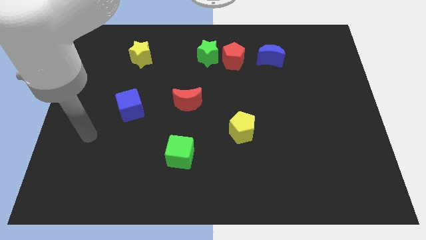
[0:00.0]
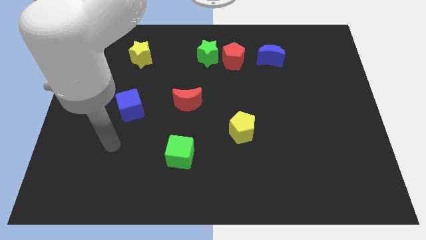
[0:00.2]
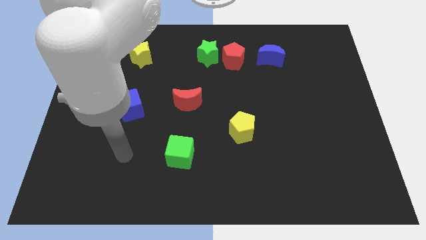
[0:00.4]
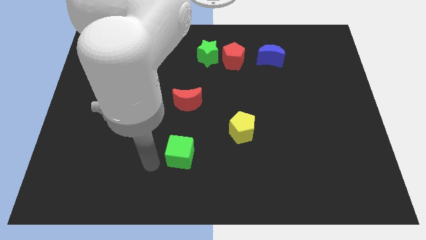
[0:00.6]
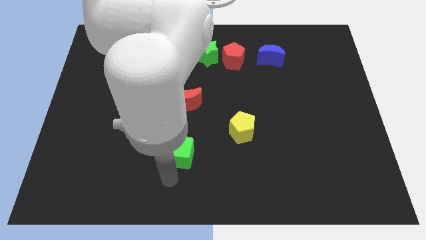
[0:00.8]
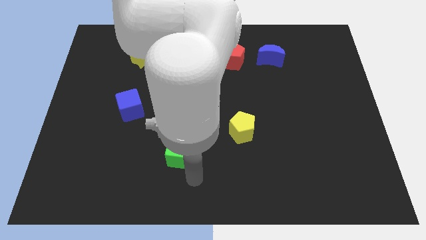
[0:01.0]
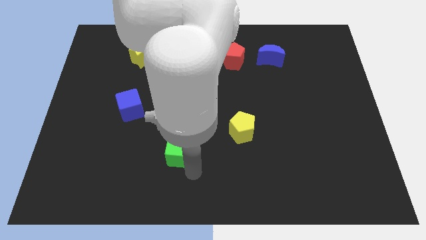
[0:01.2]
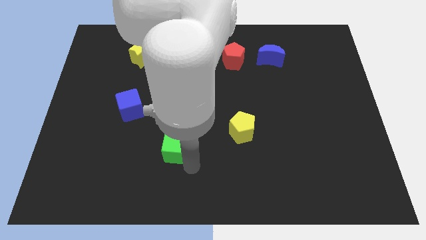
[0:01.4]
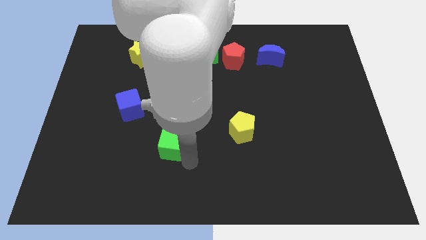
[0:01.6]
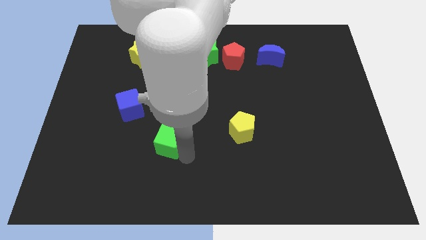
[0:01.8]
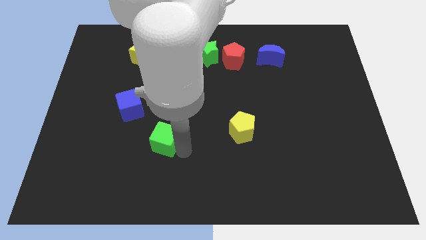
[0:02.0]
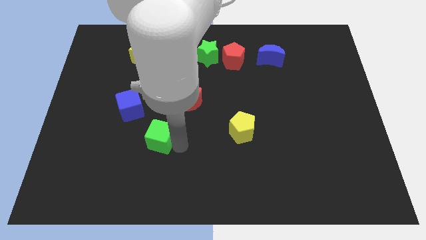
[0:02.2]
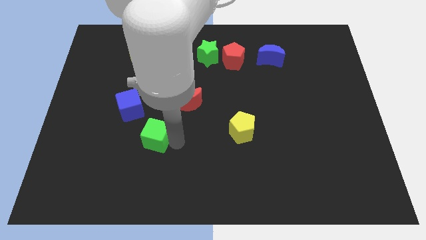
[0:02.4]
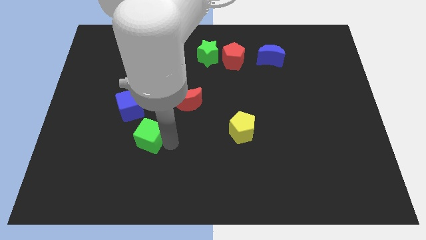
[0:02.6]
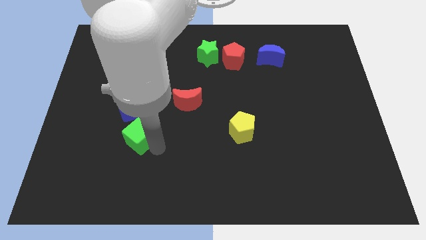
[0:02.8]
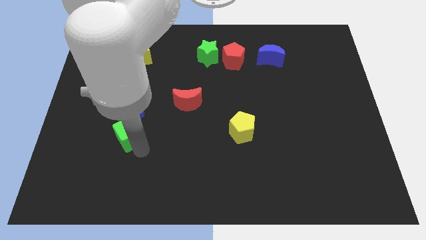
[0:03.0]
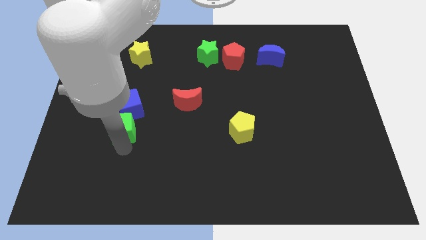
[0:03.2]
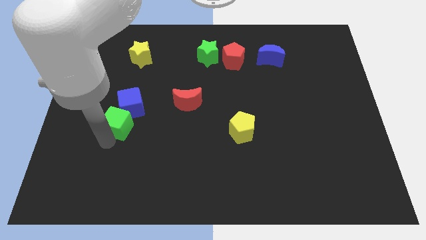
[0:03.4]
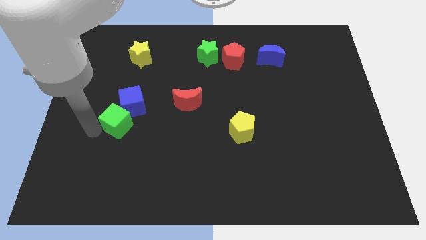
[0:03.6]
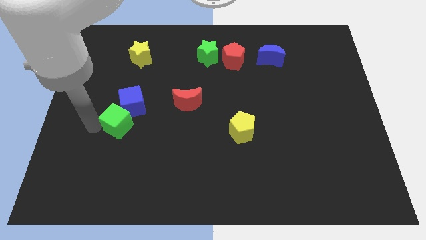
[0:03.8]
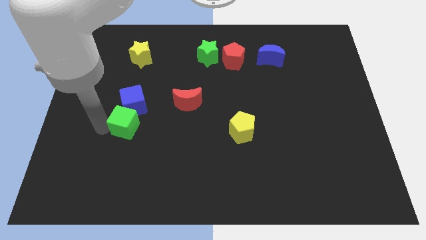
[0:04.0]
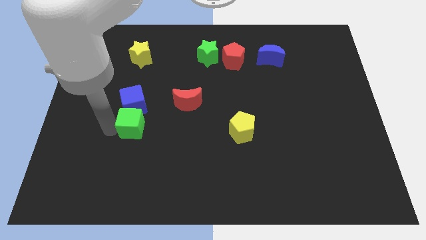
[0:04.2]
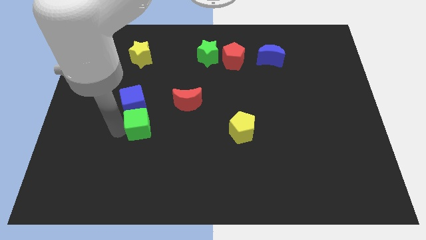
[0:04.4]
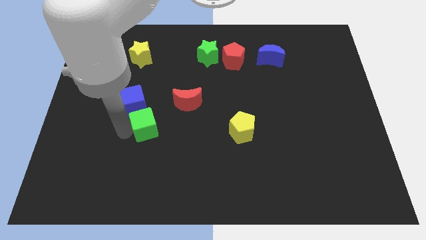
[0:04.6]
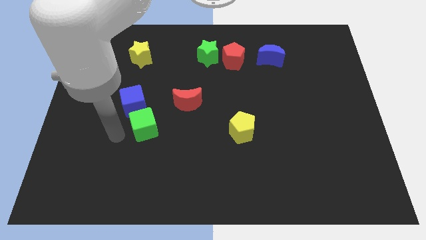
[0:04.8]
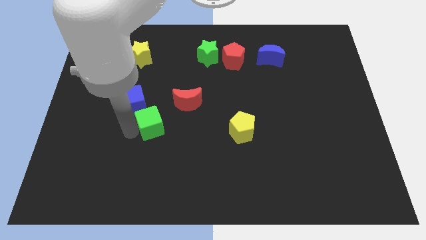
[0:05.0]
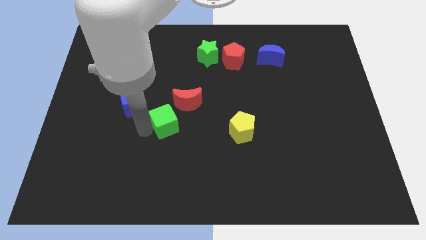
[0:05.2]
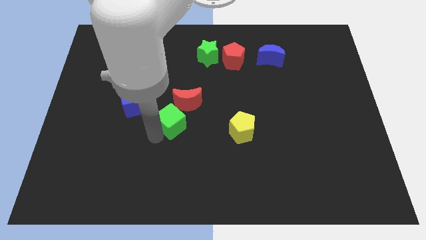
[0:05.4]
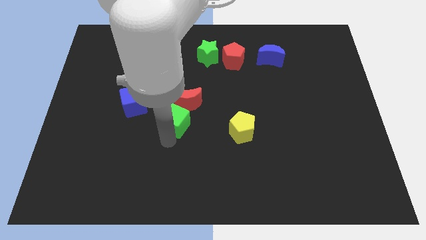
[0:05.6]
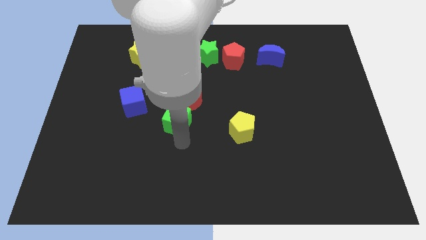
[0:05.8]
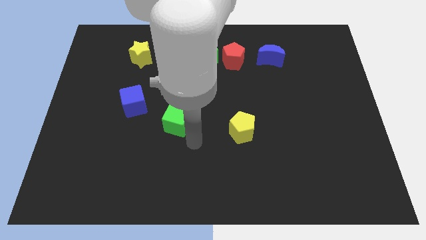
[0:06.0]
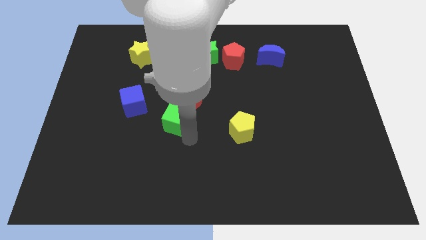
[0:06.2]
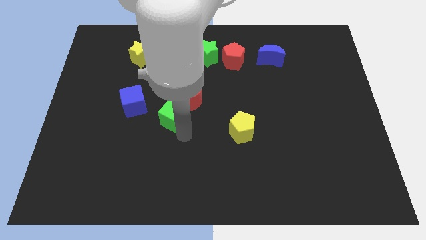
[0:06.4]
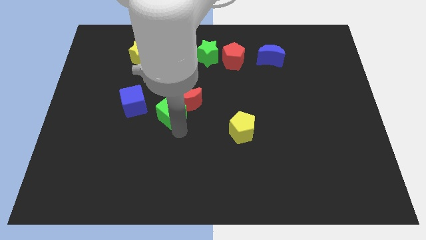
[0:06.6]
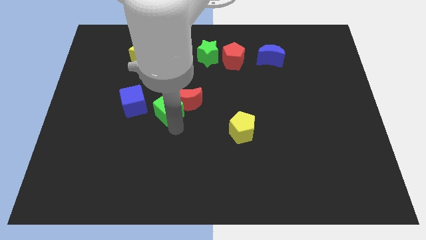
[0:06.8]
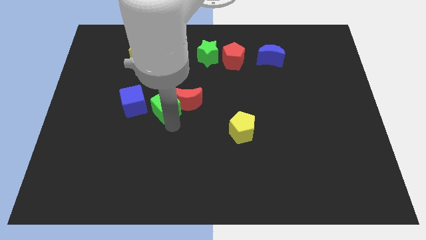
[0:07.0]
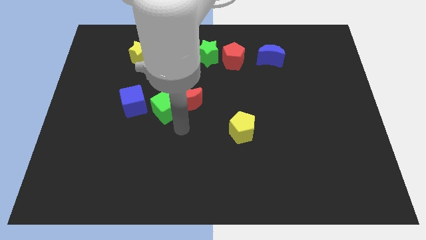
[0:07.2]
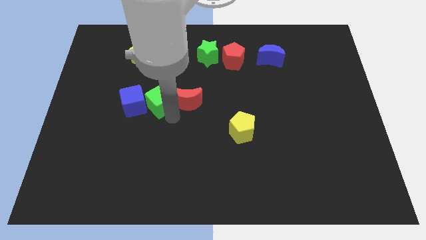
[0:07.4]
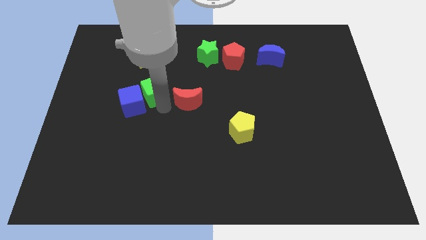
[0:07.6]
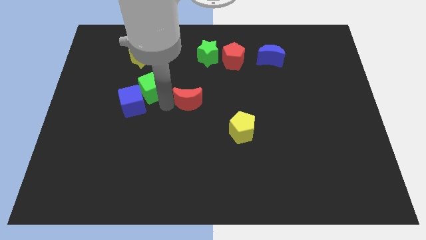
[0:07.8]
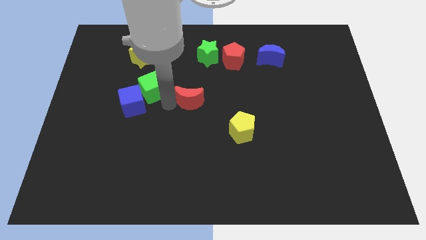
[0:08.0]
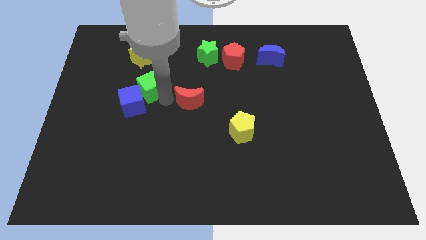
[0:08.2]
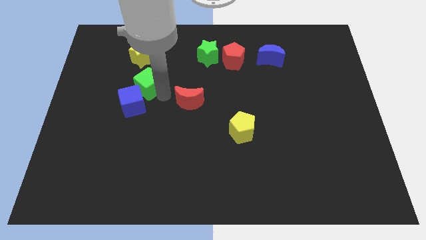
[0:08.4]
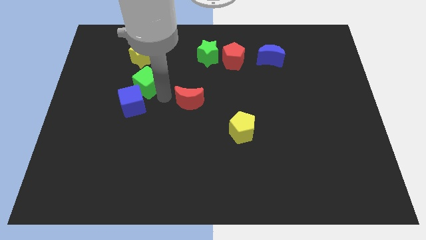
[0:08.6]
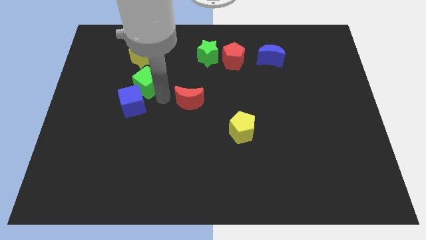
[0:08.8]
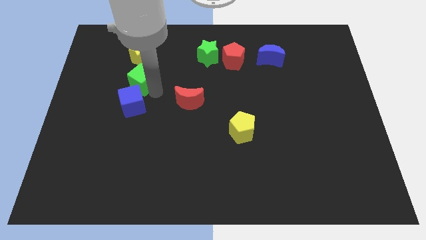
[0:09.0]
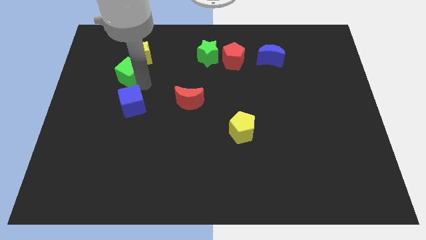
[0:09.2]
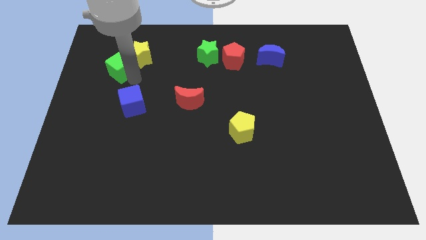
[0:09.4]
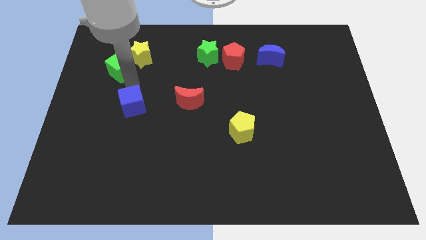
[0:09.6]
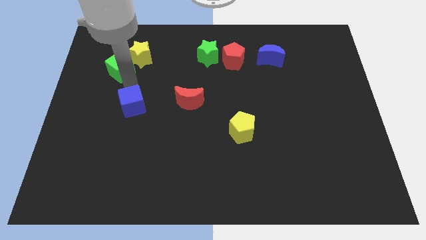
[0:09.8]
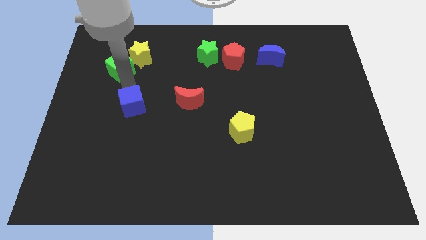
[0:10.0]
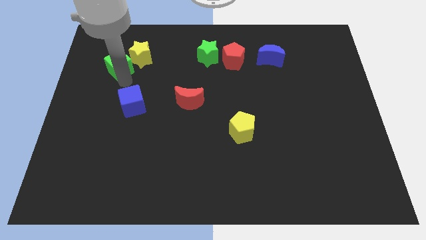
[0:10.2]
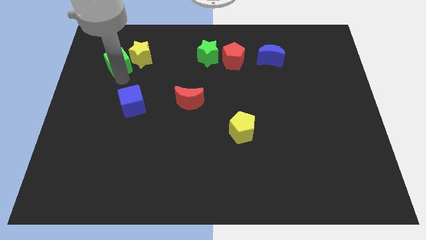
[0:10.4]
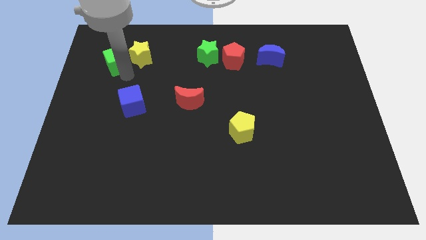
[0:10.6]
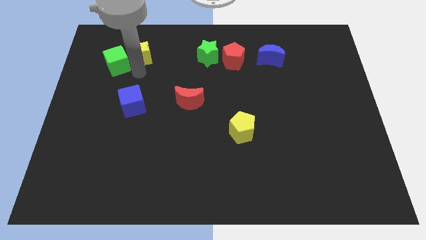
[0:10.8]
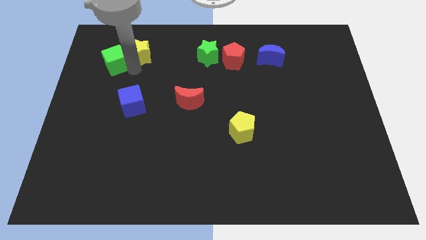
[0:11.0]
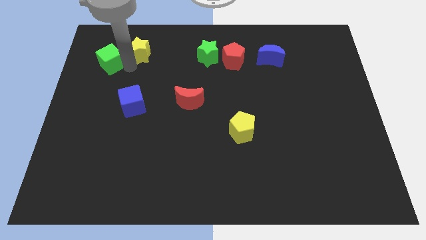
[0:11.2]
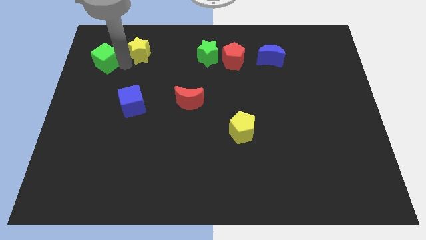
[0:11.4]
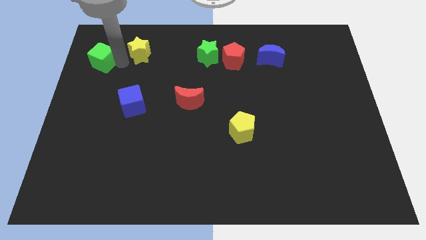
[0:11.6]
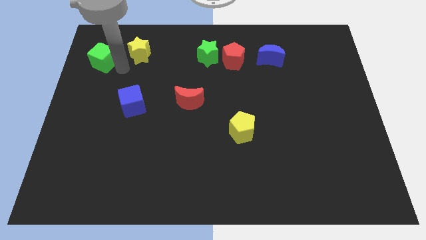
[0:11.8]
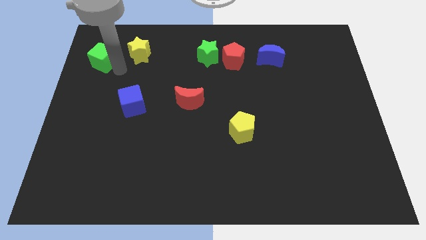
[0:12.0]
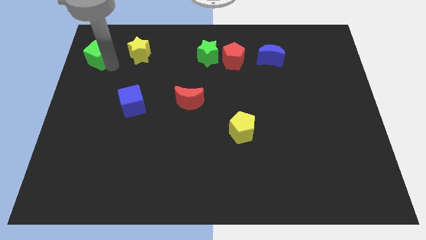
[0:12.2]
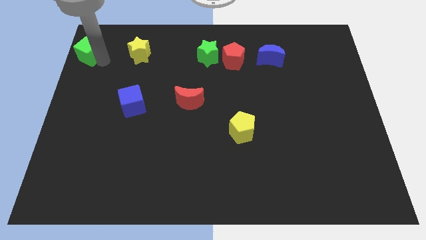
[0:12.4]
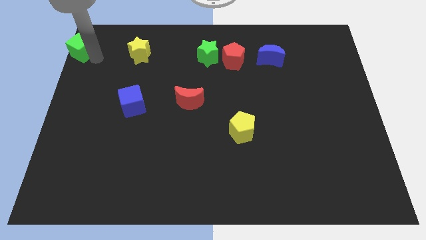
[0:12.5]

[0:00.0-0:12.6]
slide the green cube to the upper left corner

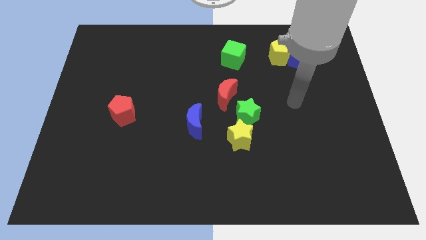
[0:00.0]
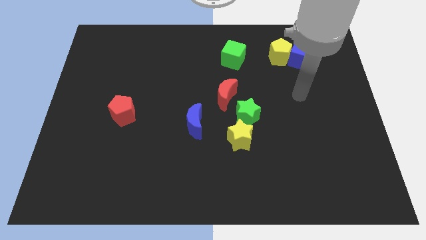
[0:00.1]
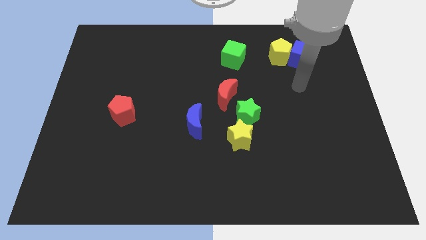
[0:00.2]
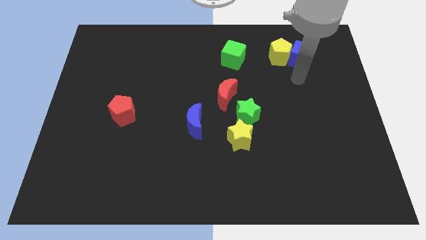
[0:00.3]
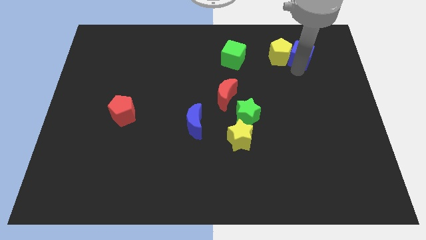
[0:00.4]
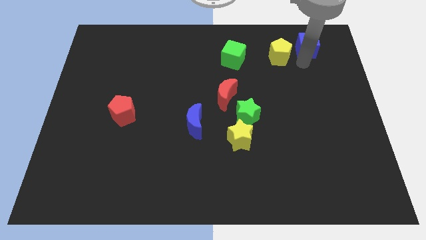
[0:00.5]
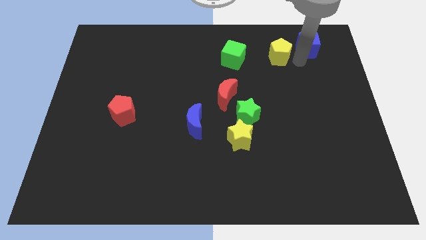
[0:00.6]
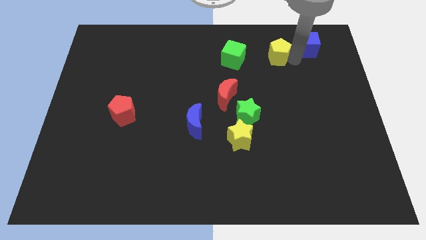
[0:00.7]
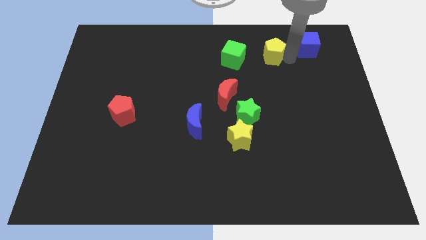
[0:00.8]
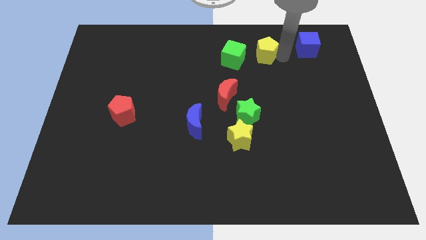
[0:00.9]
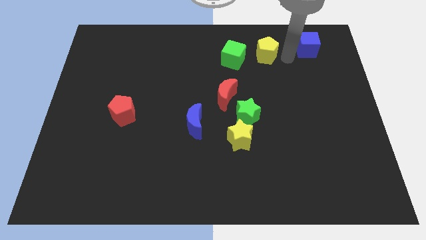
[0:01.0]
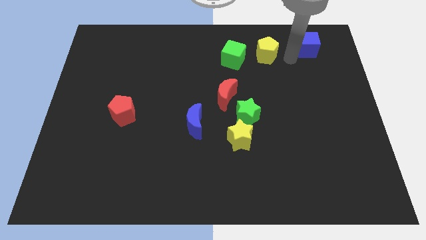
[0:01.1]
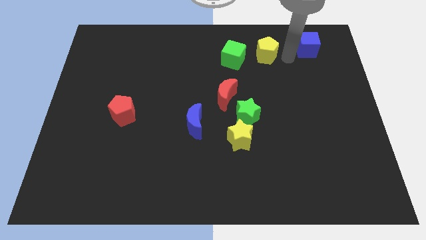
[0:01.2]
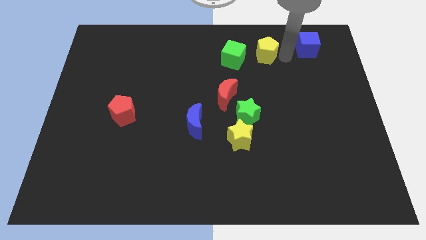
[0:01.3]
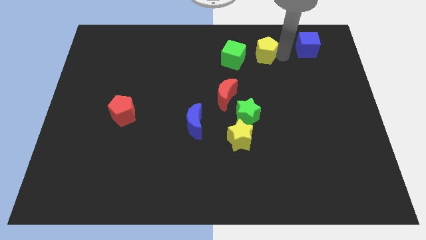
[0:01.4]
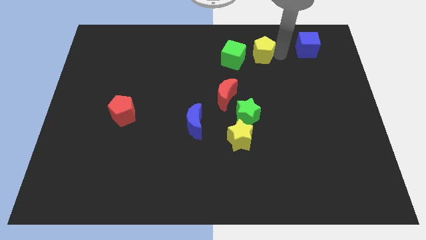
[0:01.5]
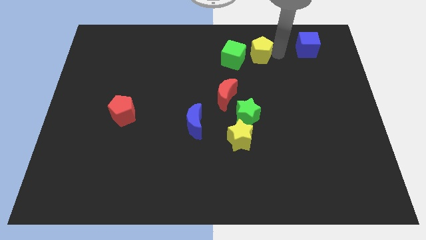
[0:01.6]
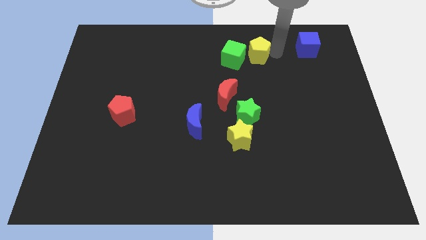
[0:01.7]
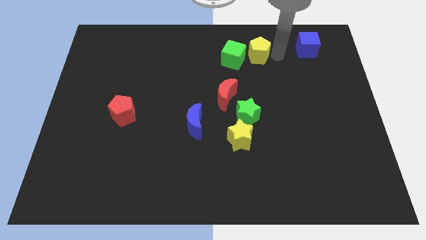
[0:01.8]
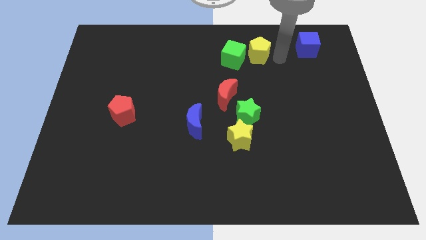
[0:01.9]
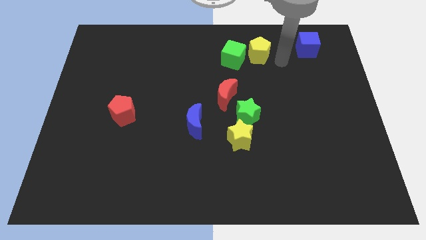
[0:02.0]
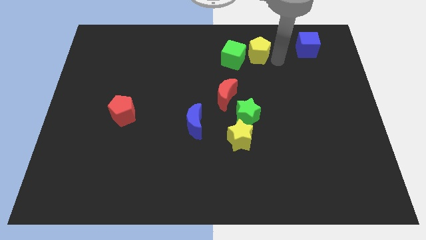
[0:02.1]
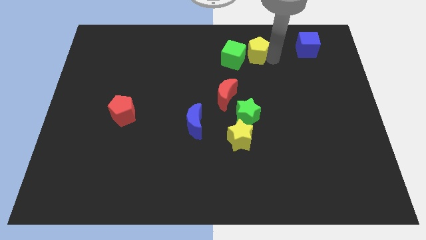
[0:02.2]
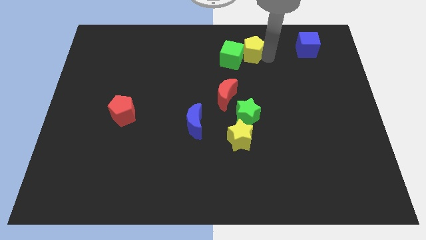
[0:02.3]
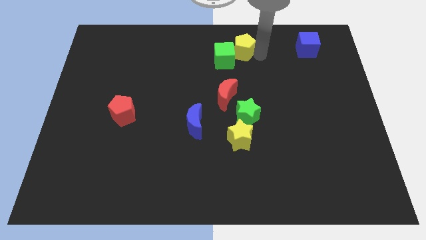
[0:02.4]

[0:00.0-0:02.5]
move the yellow pentagon to the top
